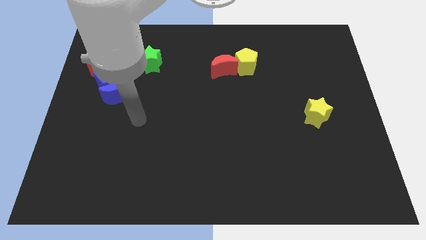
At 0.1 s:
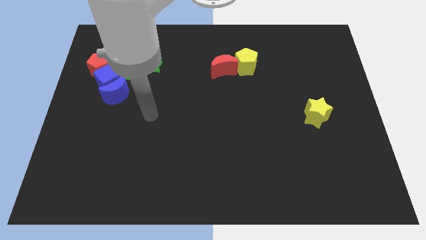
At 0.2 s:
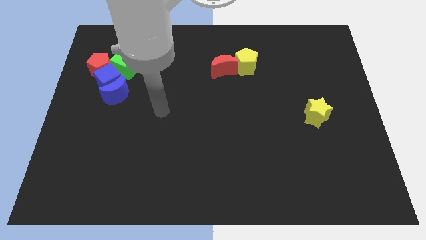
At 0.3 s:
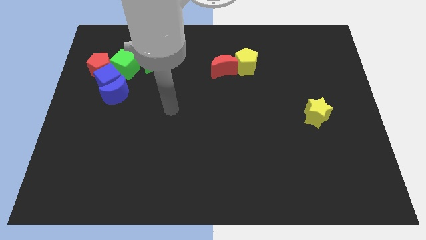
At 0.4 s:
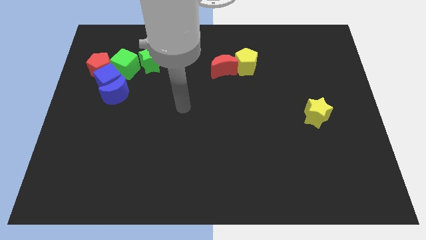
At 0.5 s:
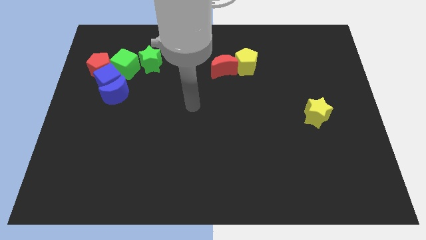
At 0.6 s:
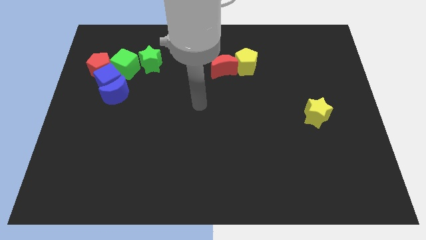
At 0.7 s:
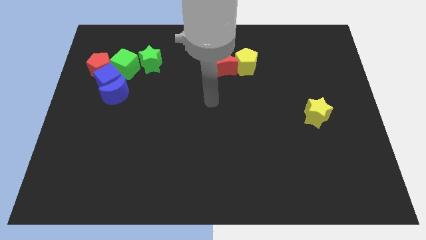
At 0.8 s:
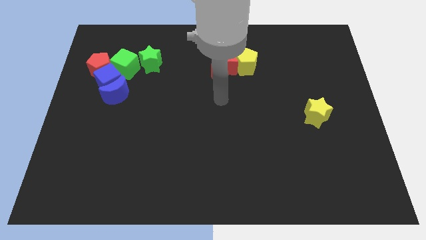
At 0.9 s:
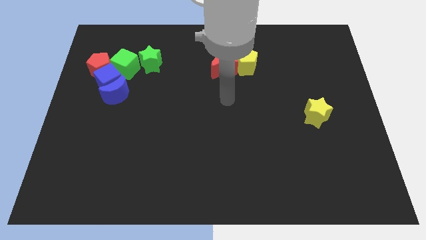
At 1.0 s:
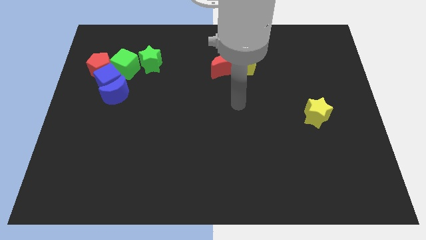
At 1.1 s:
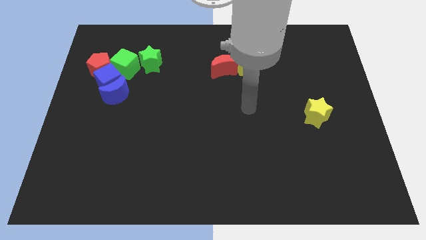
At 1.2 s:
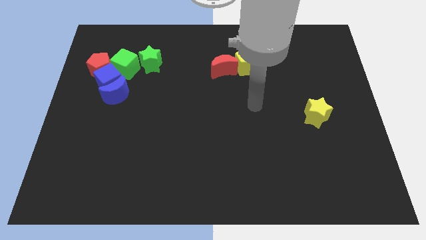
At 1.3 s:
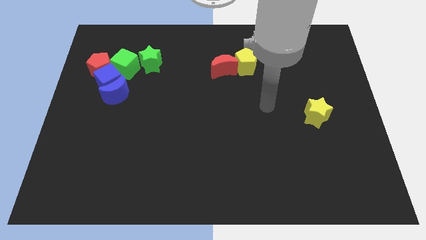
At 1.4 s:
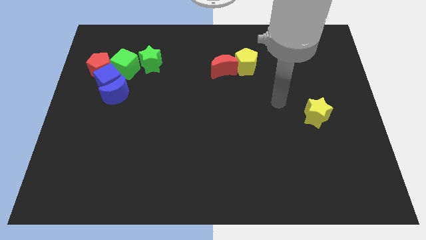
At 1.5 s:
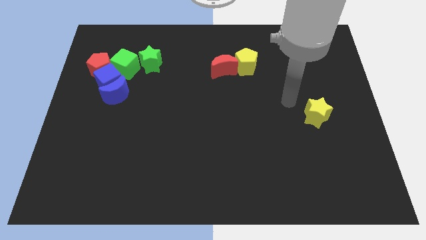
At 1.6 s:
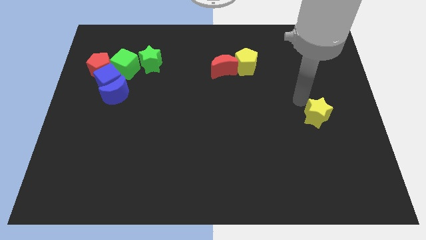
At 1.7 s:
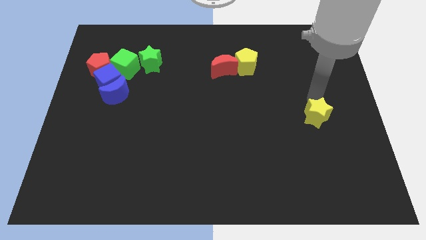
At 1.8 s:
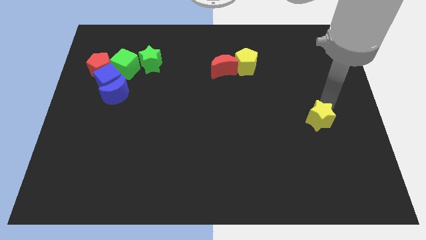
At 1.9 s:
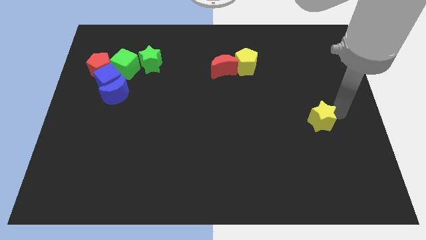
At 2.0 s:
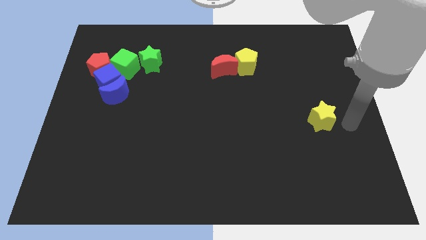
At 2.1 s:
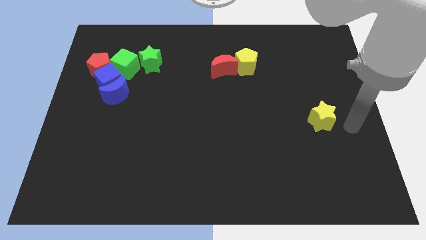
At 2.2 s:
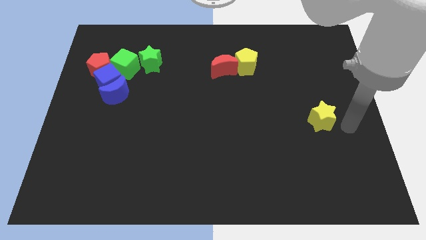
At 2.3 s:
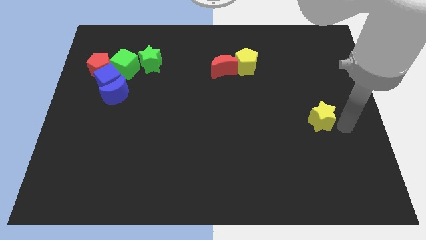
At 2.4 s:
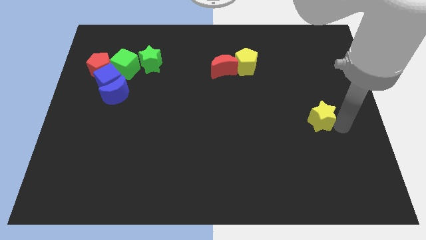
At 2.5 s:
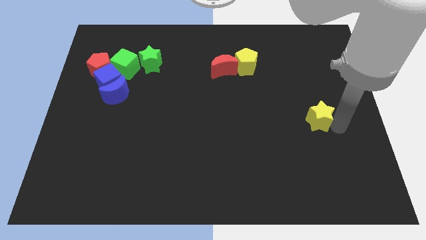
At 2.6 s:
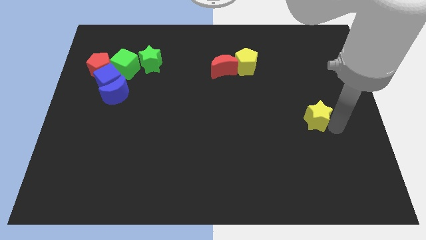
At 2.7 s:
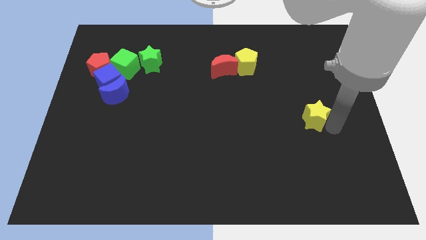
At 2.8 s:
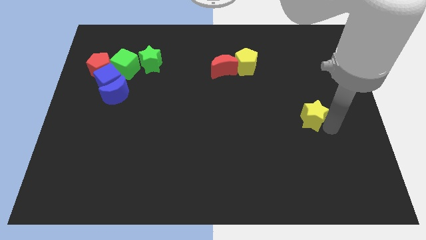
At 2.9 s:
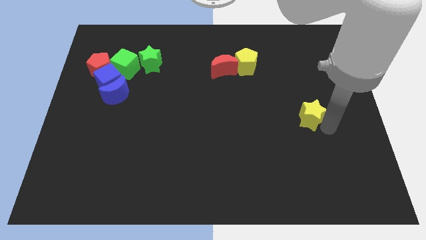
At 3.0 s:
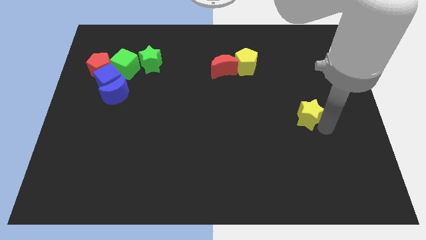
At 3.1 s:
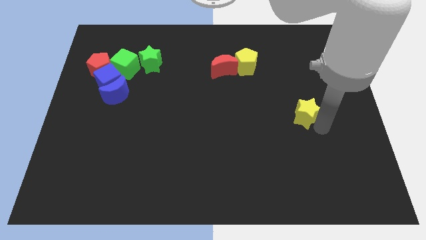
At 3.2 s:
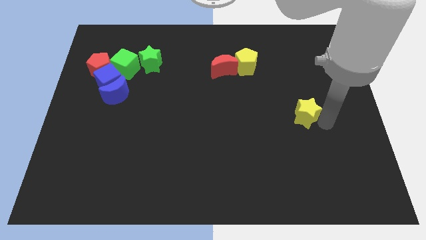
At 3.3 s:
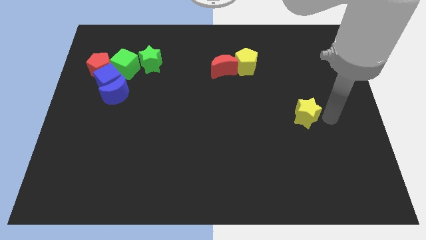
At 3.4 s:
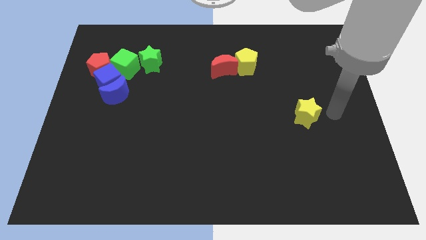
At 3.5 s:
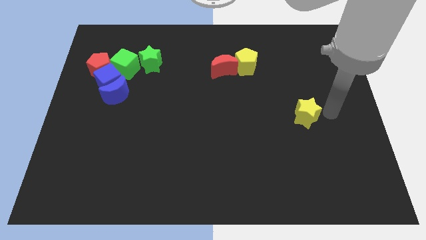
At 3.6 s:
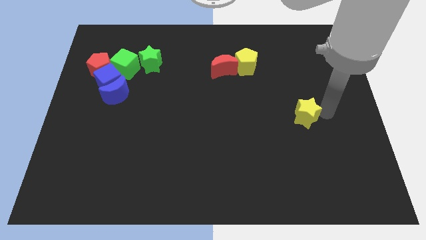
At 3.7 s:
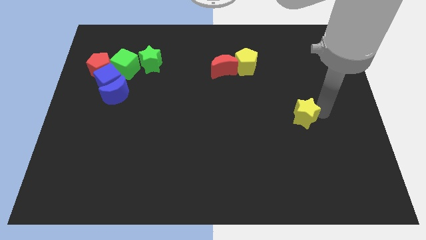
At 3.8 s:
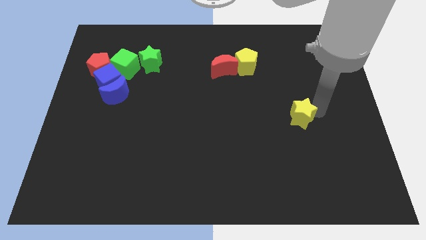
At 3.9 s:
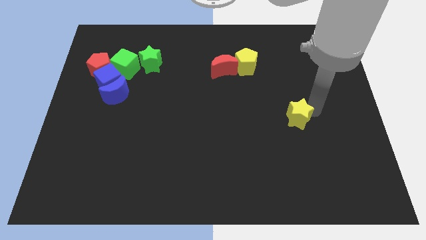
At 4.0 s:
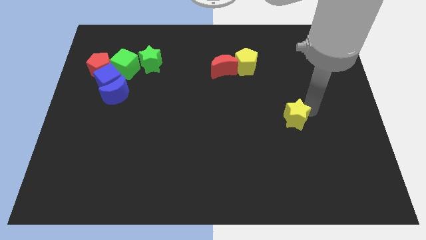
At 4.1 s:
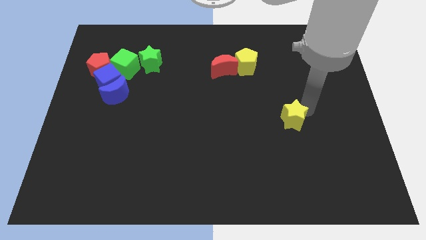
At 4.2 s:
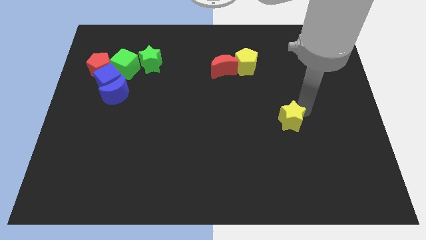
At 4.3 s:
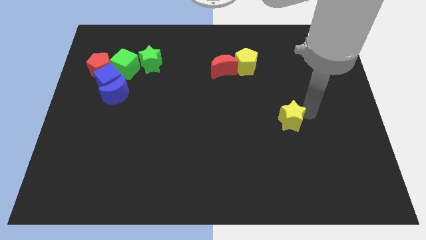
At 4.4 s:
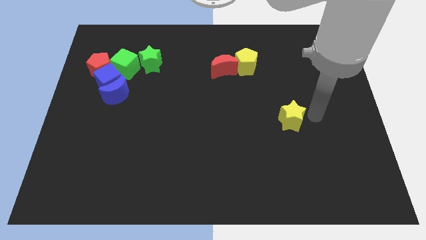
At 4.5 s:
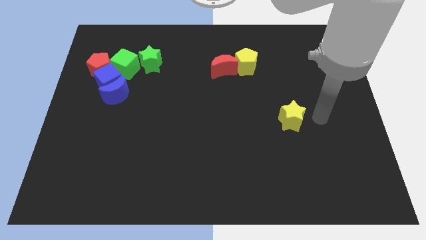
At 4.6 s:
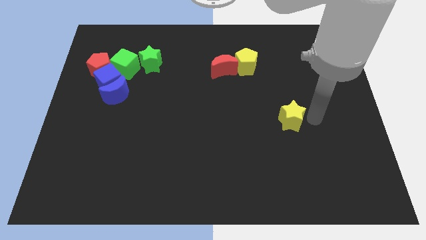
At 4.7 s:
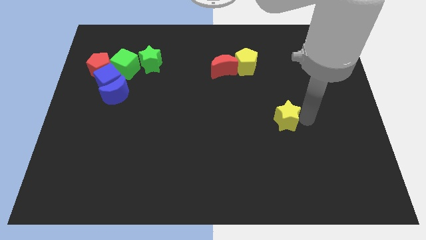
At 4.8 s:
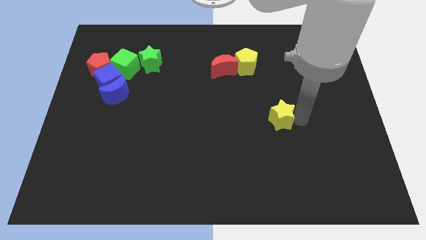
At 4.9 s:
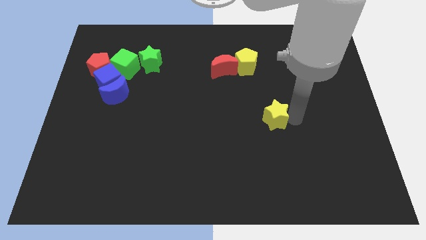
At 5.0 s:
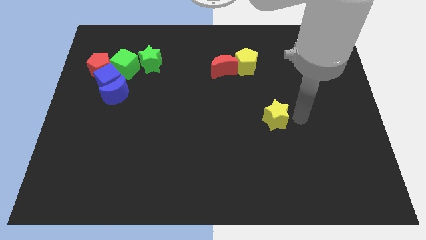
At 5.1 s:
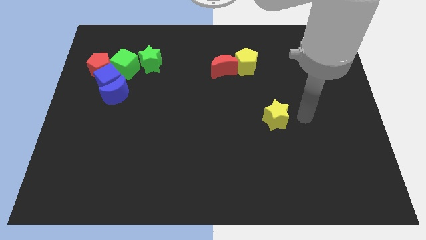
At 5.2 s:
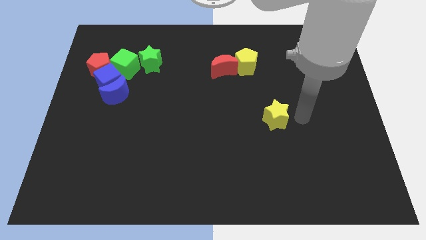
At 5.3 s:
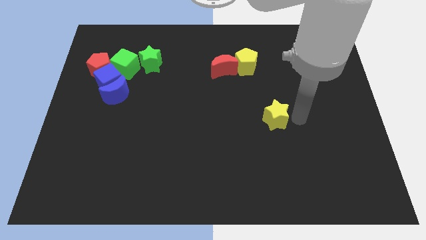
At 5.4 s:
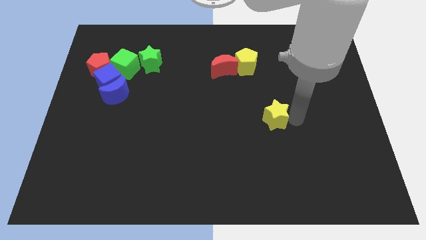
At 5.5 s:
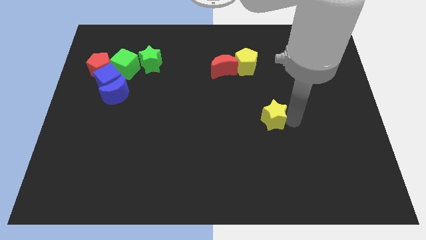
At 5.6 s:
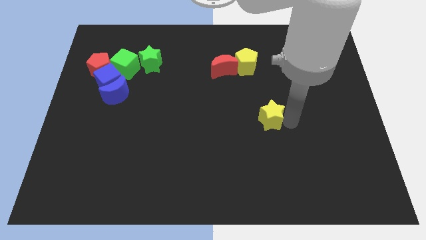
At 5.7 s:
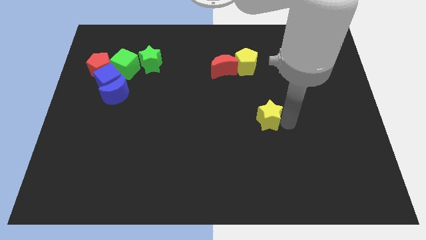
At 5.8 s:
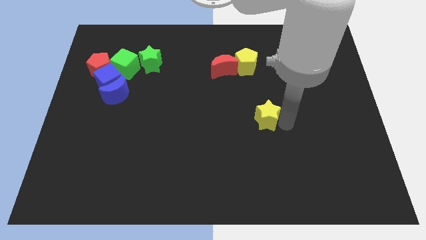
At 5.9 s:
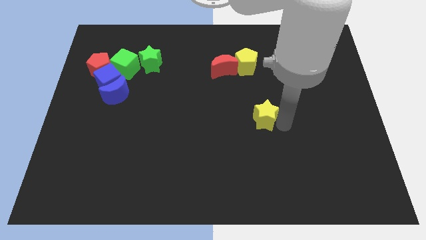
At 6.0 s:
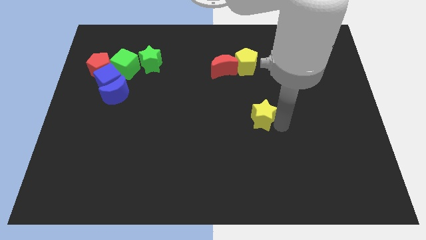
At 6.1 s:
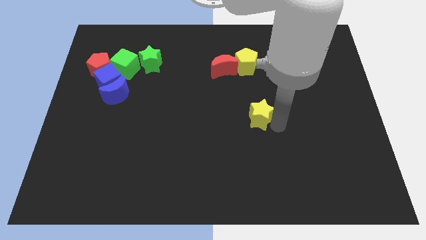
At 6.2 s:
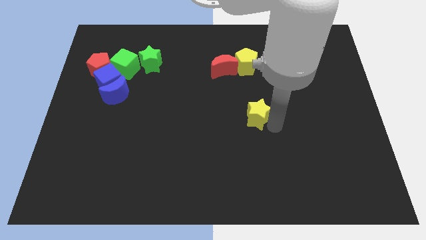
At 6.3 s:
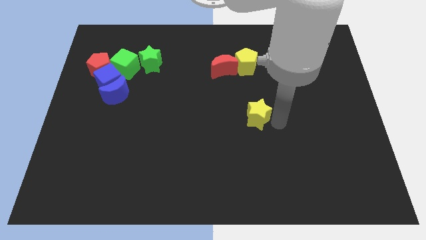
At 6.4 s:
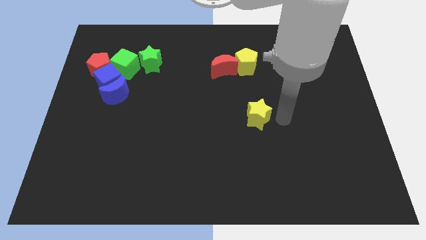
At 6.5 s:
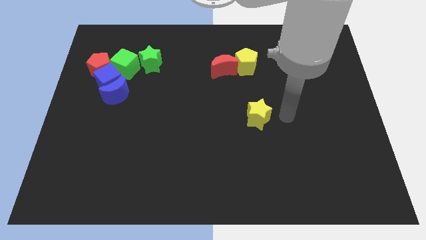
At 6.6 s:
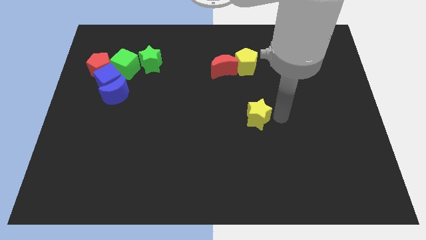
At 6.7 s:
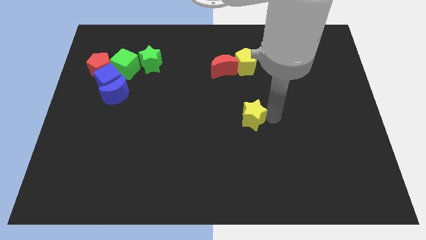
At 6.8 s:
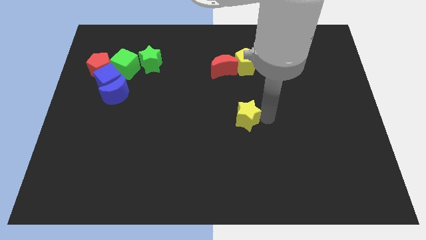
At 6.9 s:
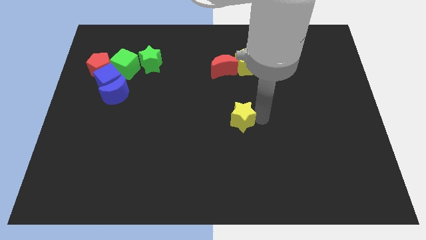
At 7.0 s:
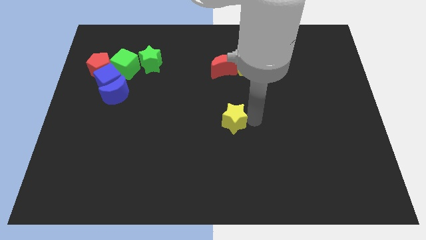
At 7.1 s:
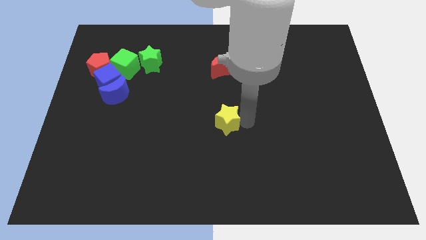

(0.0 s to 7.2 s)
move the yellow star left

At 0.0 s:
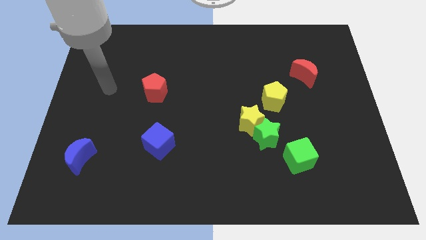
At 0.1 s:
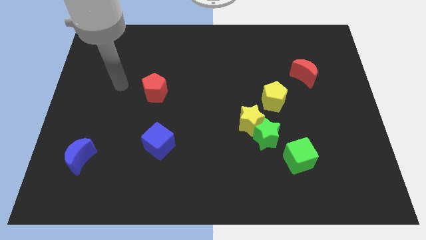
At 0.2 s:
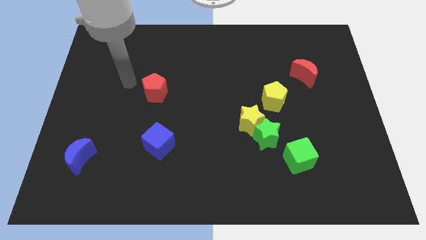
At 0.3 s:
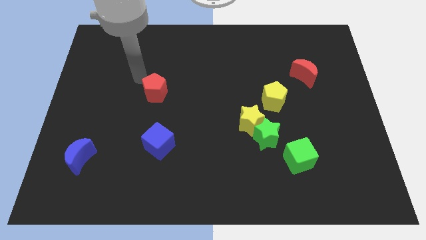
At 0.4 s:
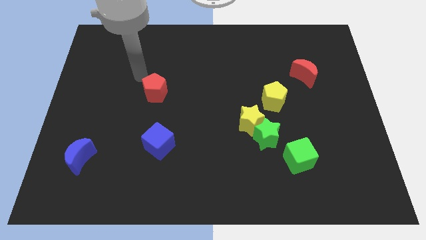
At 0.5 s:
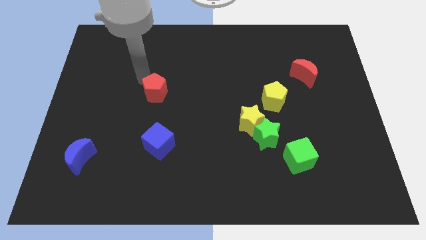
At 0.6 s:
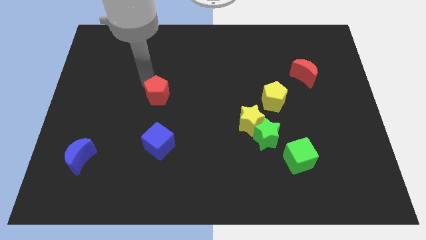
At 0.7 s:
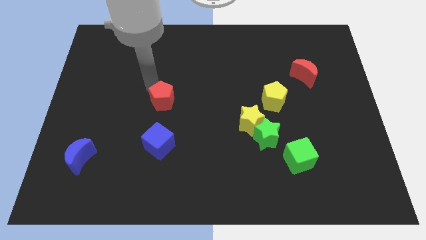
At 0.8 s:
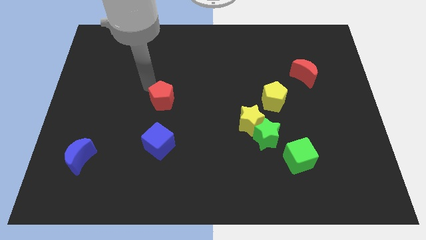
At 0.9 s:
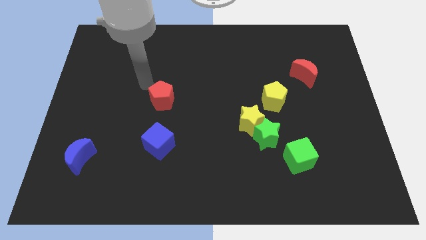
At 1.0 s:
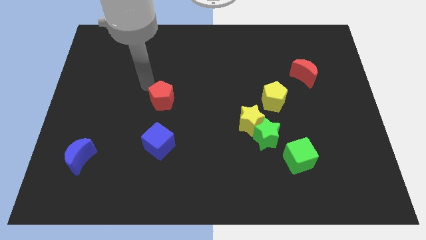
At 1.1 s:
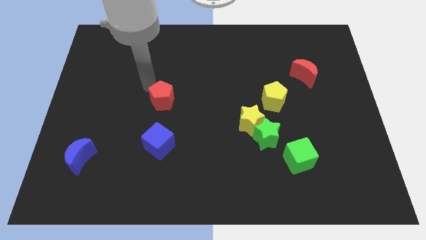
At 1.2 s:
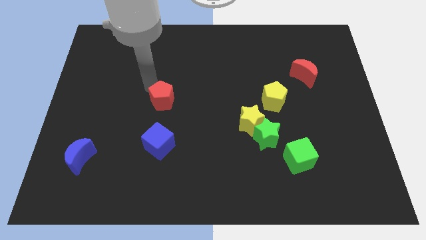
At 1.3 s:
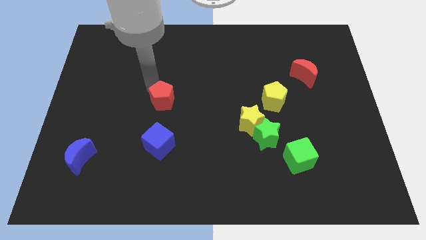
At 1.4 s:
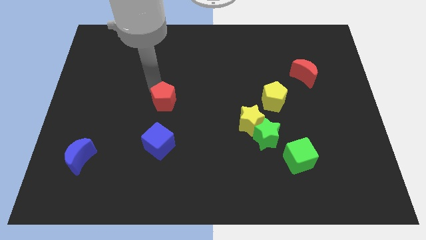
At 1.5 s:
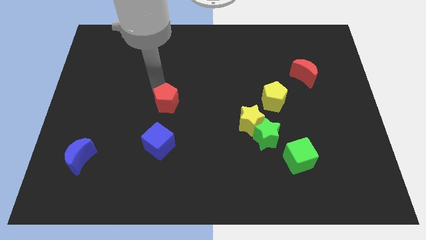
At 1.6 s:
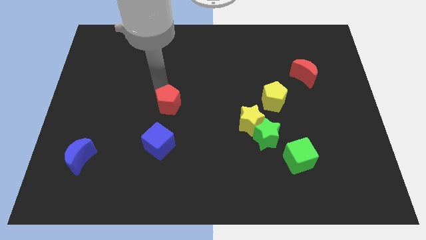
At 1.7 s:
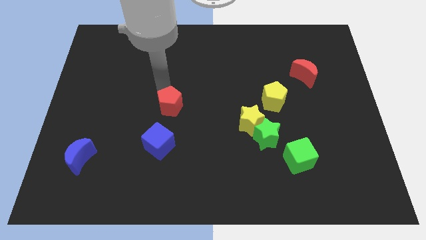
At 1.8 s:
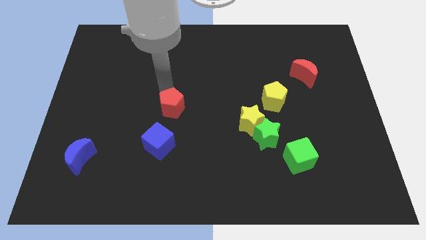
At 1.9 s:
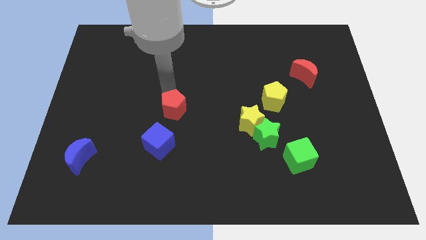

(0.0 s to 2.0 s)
slide the red pentagon a bit down and right
